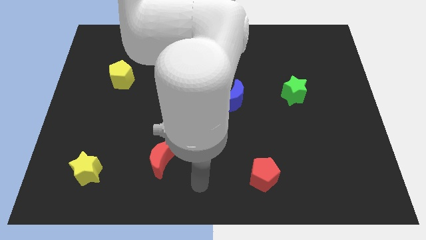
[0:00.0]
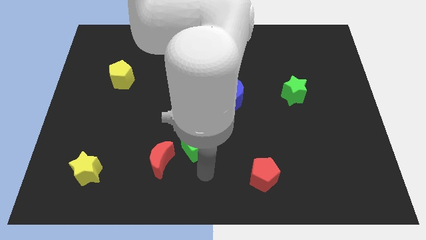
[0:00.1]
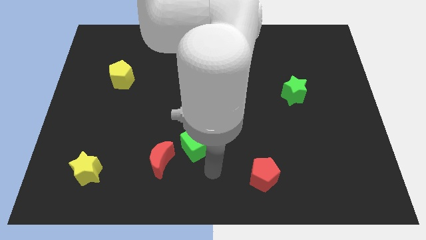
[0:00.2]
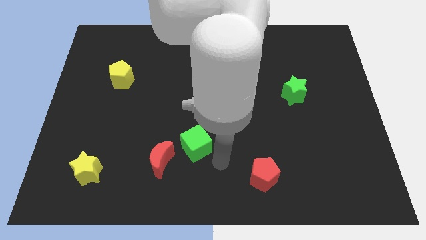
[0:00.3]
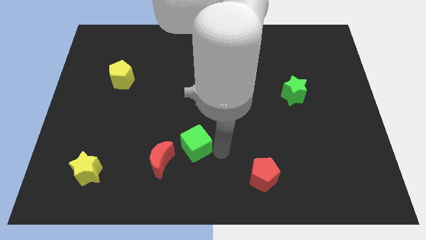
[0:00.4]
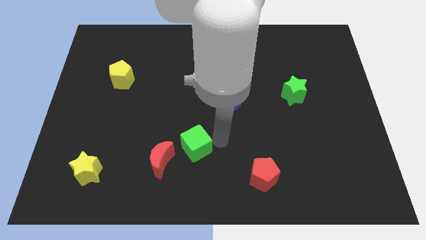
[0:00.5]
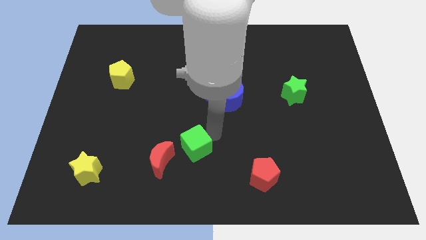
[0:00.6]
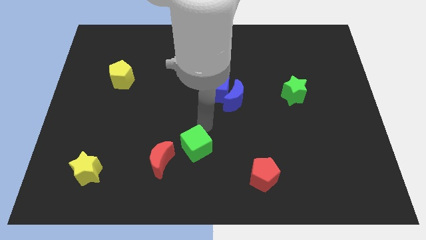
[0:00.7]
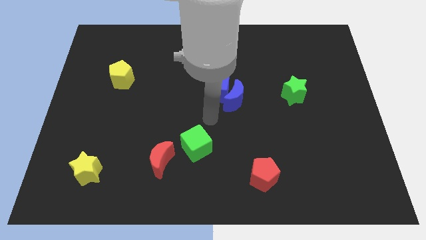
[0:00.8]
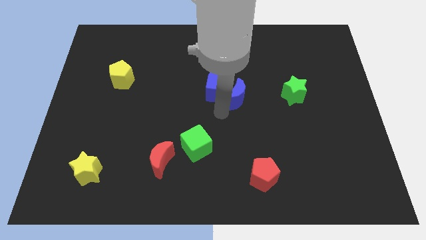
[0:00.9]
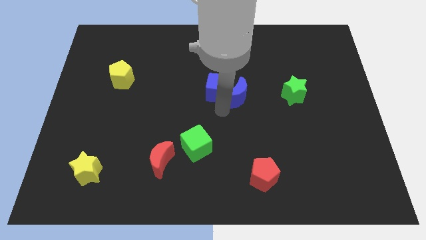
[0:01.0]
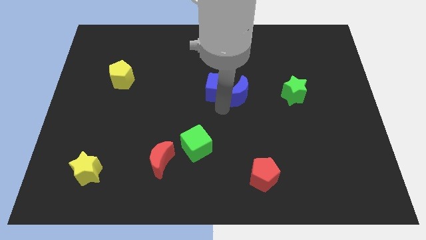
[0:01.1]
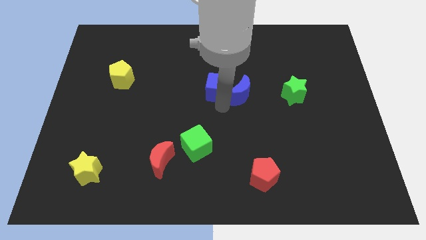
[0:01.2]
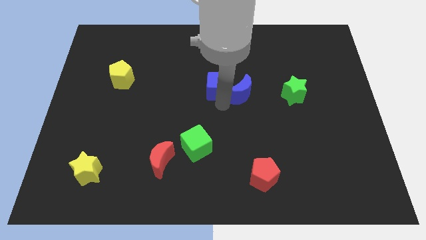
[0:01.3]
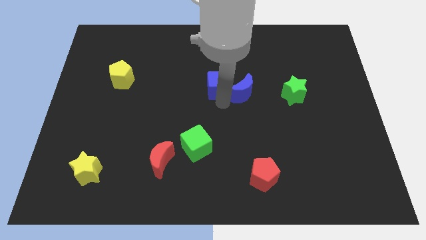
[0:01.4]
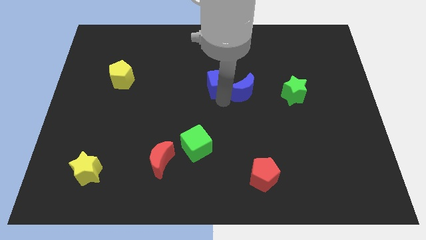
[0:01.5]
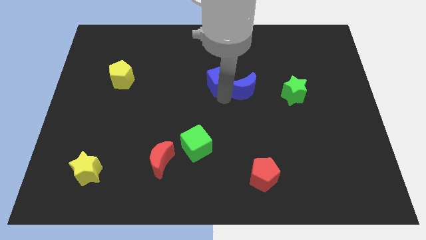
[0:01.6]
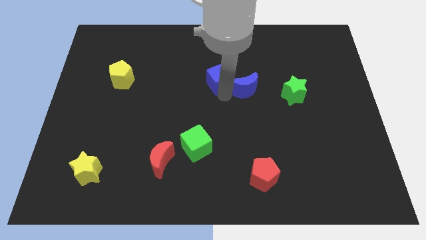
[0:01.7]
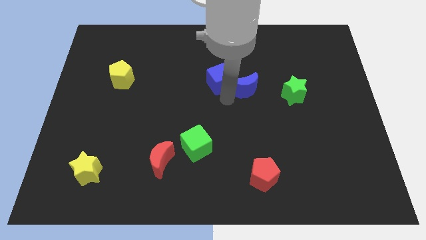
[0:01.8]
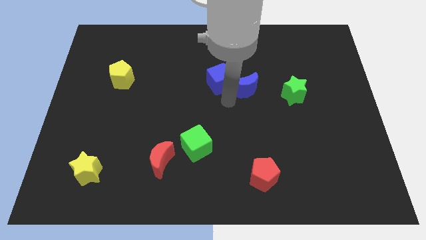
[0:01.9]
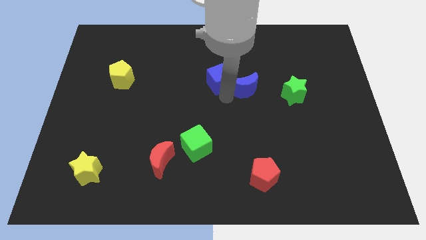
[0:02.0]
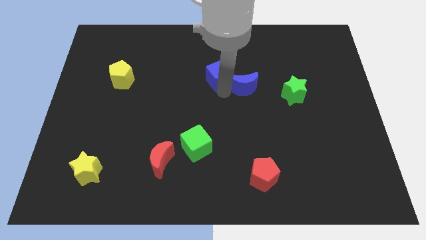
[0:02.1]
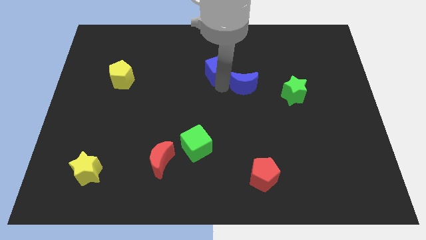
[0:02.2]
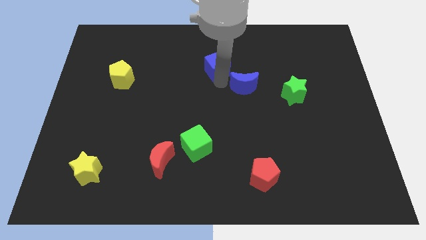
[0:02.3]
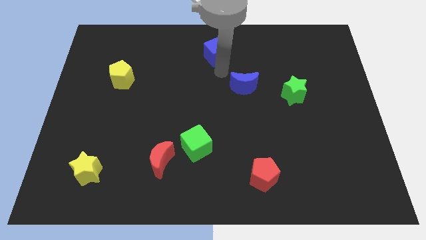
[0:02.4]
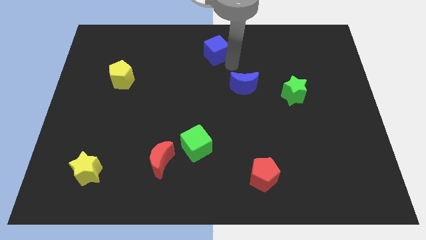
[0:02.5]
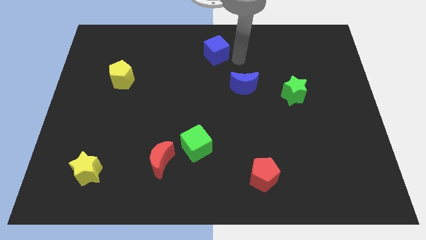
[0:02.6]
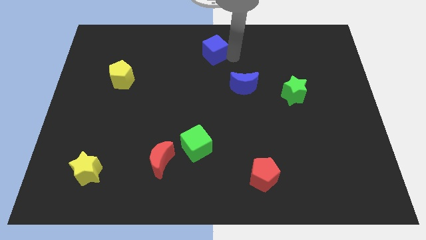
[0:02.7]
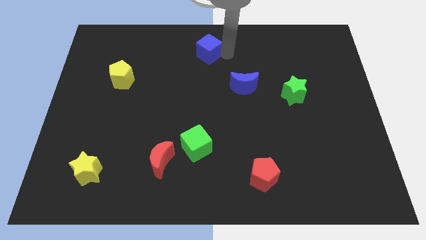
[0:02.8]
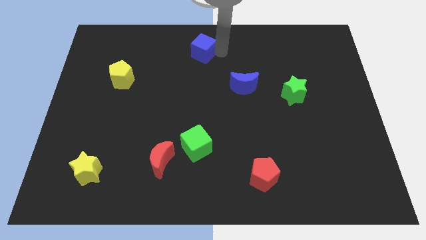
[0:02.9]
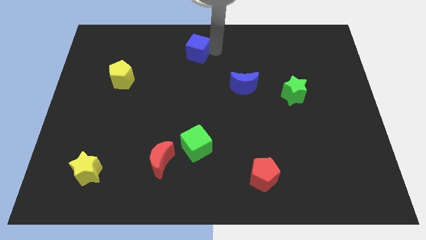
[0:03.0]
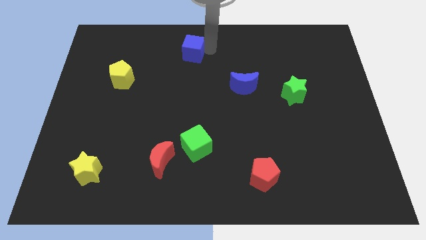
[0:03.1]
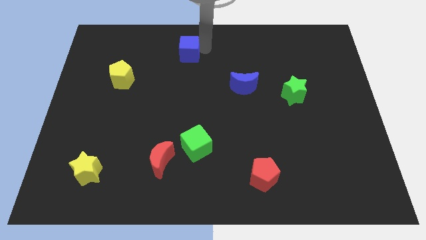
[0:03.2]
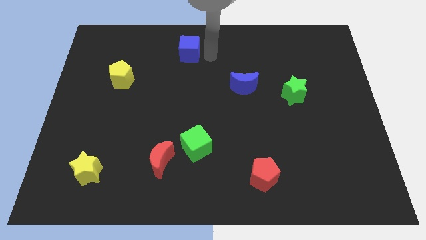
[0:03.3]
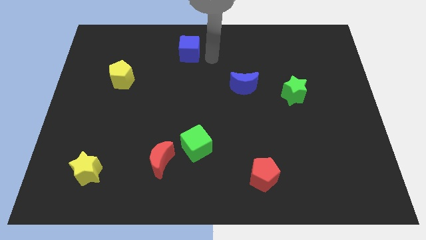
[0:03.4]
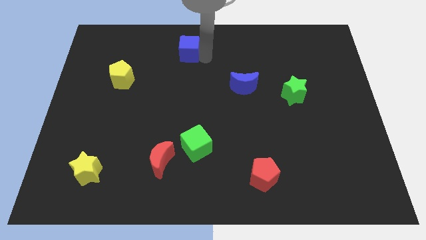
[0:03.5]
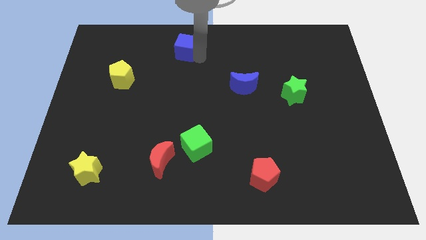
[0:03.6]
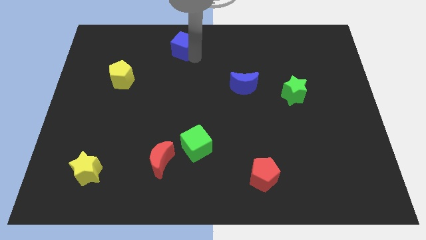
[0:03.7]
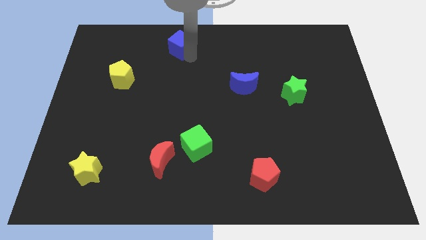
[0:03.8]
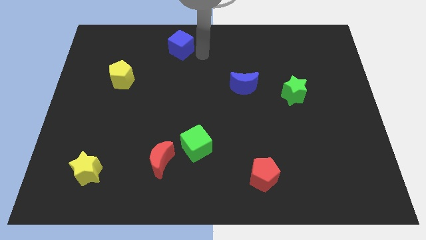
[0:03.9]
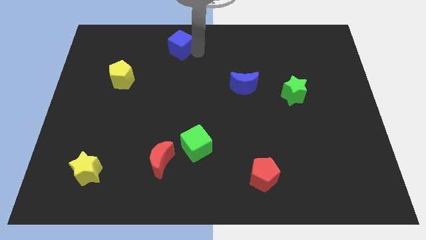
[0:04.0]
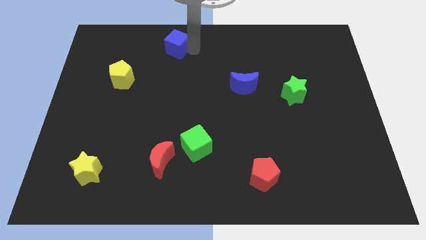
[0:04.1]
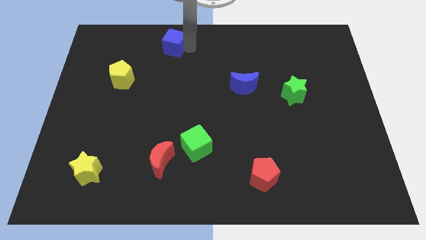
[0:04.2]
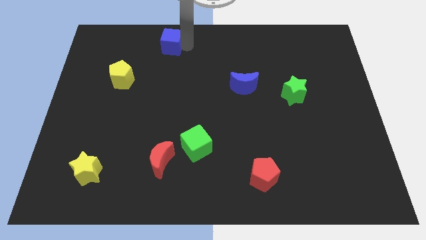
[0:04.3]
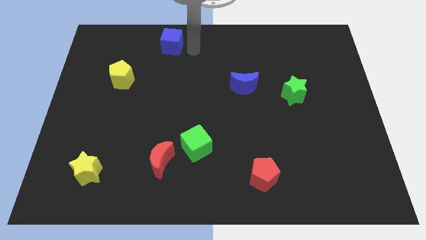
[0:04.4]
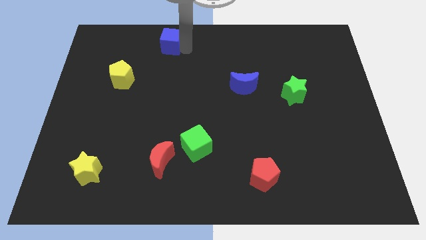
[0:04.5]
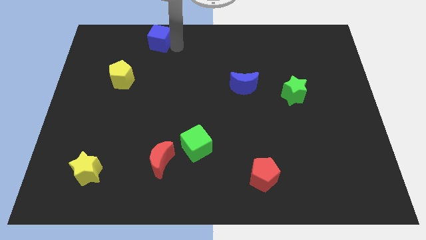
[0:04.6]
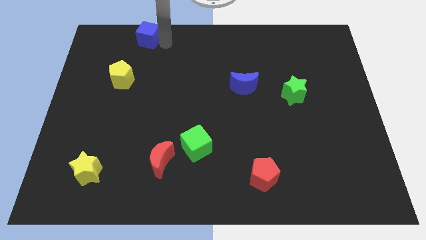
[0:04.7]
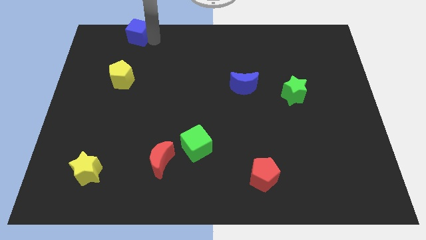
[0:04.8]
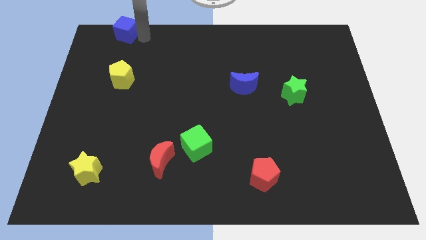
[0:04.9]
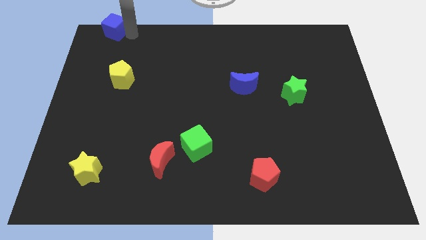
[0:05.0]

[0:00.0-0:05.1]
slide the blue cube to the top left

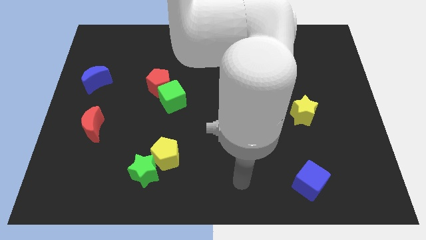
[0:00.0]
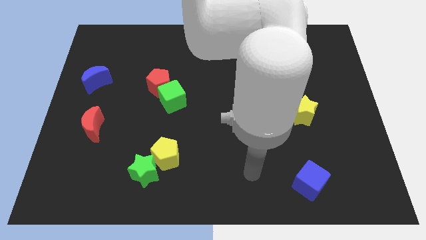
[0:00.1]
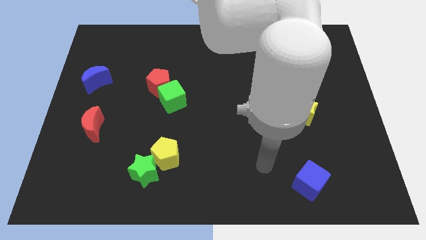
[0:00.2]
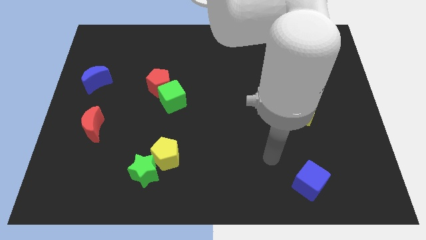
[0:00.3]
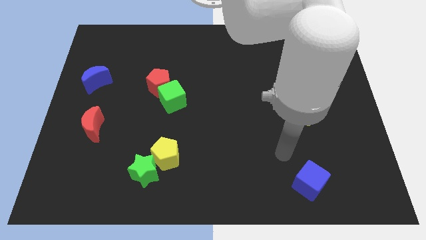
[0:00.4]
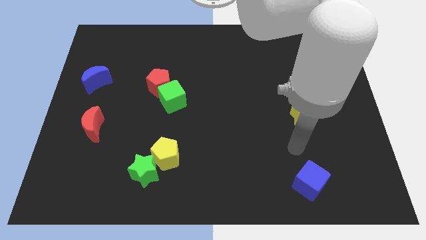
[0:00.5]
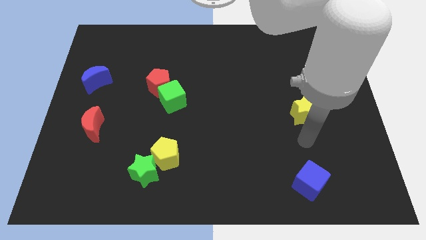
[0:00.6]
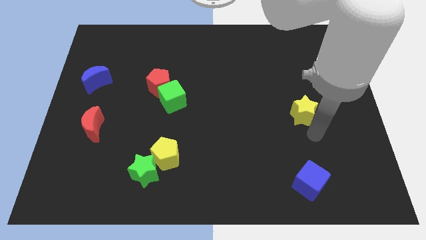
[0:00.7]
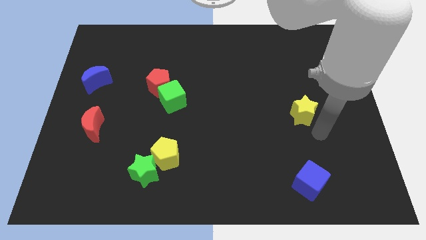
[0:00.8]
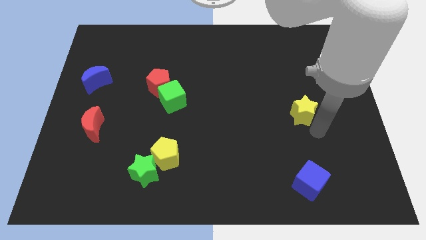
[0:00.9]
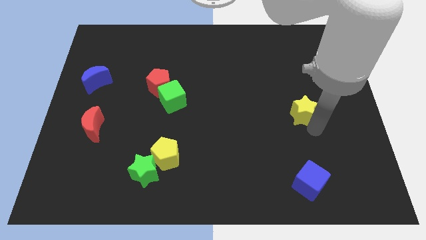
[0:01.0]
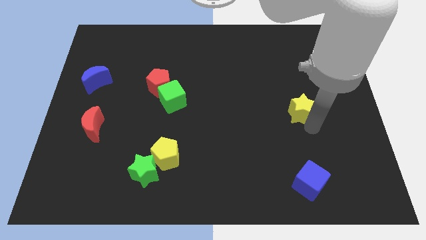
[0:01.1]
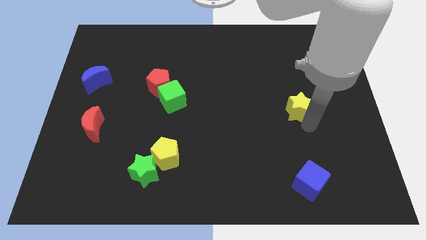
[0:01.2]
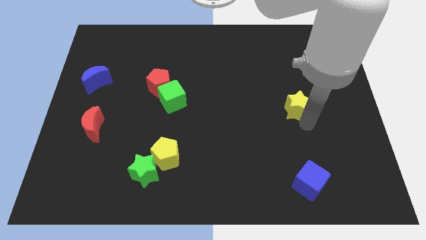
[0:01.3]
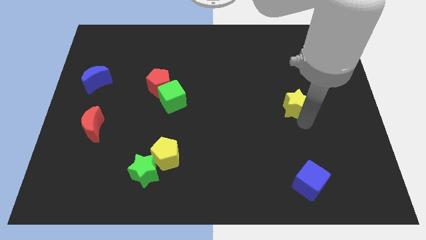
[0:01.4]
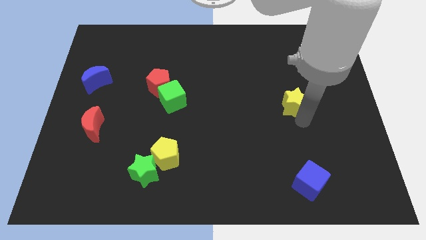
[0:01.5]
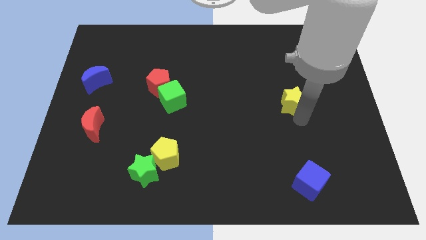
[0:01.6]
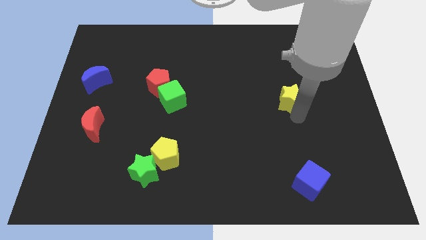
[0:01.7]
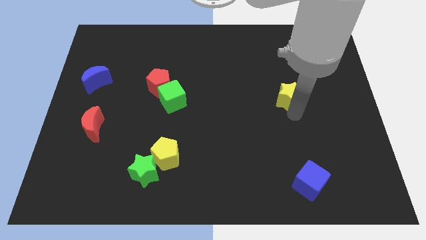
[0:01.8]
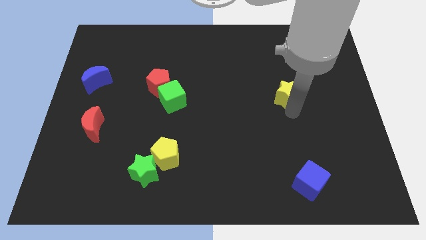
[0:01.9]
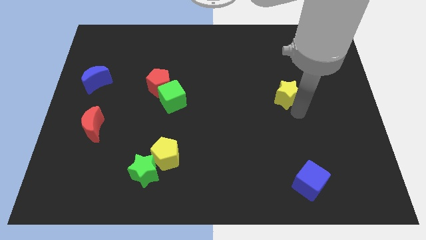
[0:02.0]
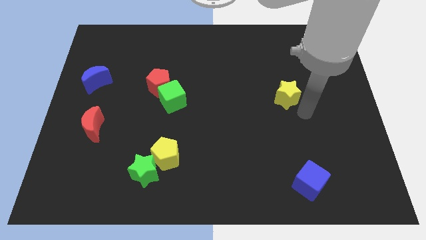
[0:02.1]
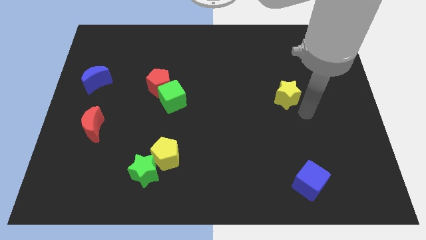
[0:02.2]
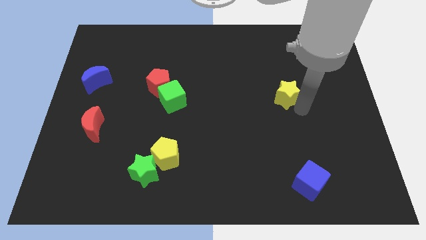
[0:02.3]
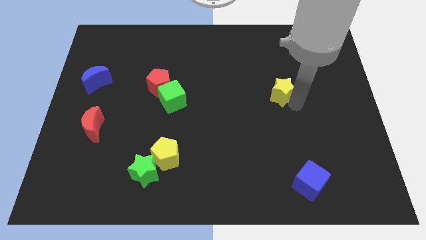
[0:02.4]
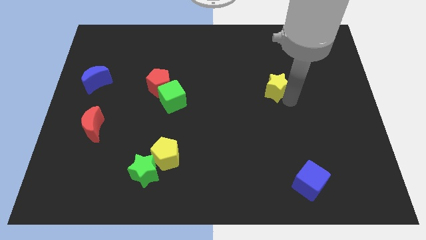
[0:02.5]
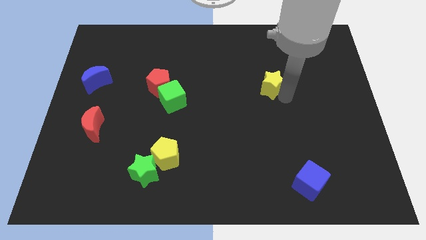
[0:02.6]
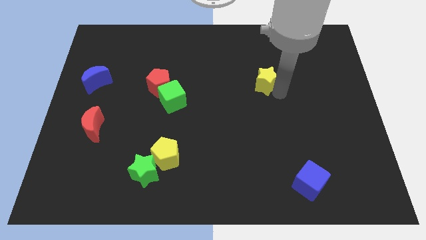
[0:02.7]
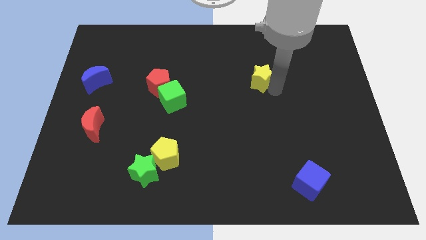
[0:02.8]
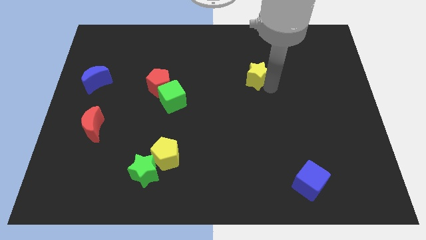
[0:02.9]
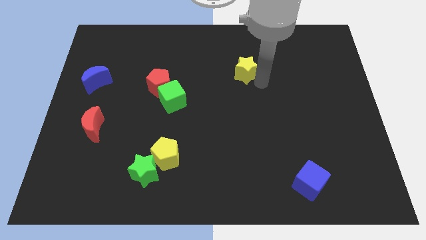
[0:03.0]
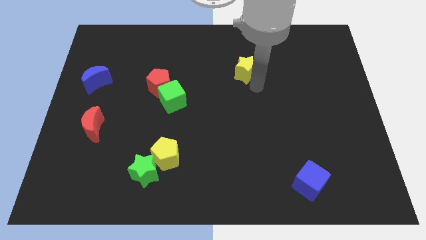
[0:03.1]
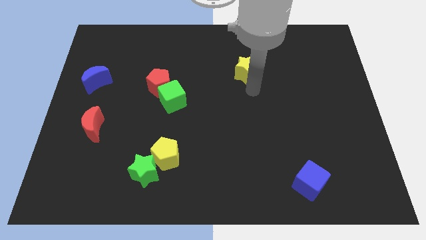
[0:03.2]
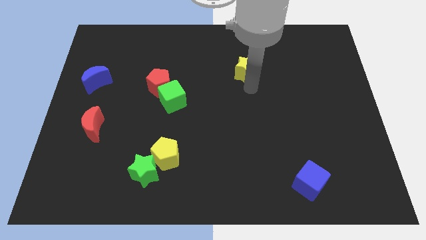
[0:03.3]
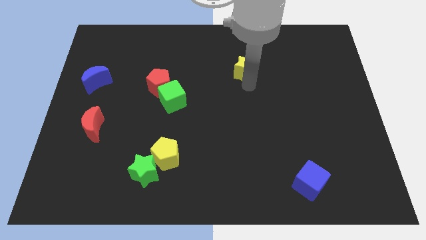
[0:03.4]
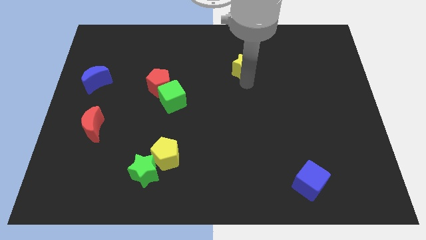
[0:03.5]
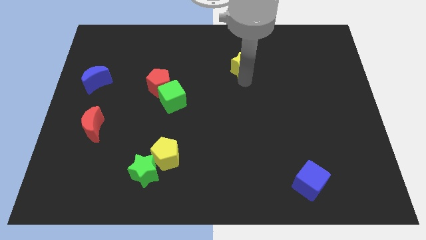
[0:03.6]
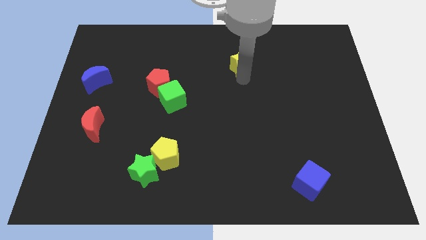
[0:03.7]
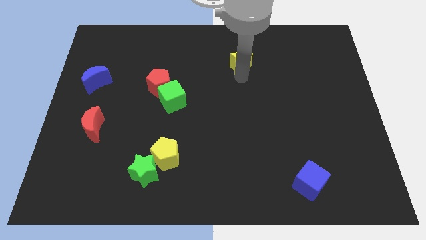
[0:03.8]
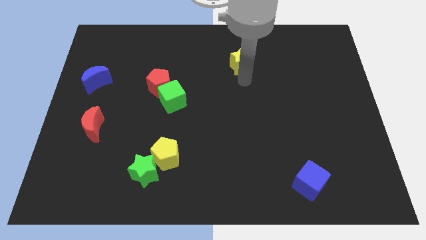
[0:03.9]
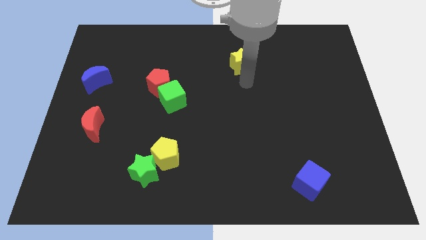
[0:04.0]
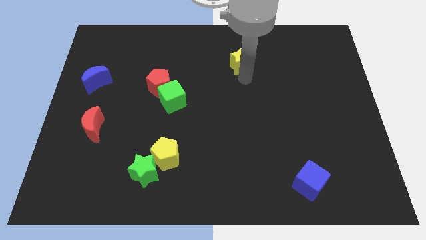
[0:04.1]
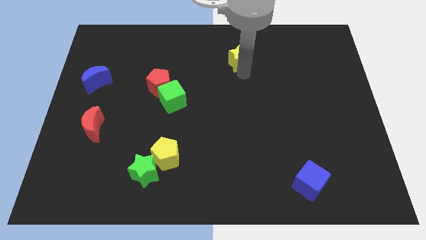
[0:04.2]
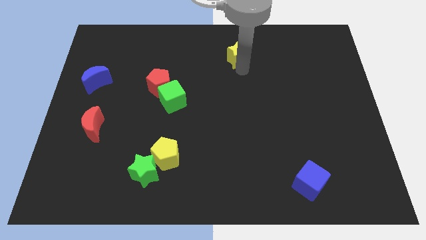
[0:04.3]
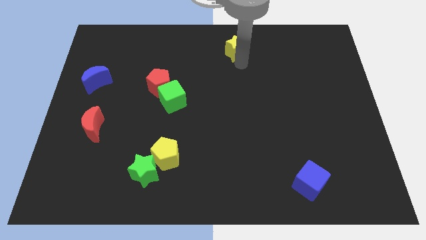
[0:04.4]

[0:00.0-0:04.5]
slide the yellow star to the towards your base
